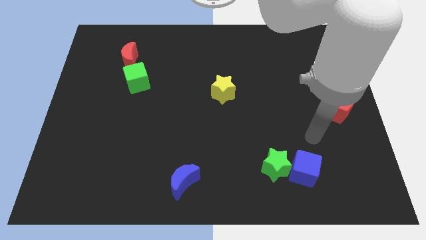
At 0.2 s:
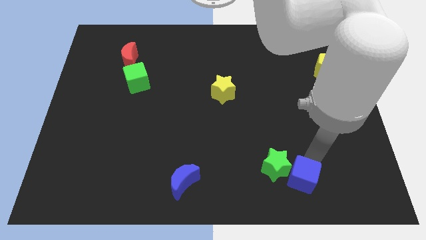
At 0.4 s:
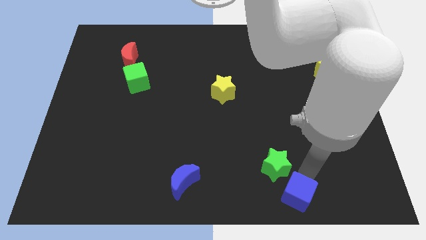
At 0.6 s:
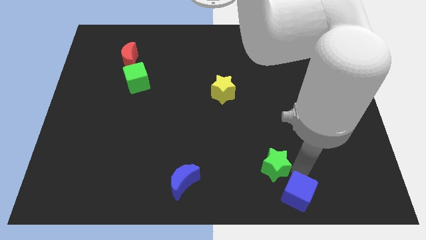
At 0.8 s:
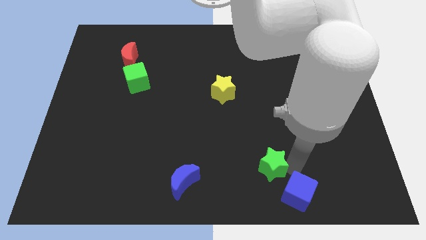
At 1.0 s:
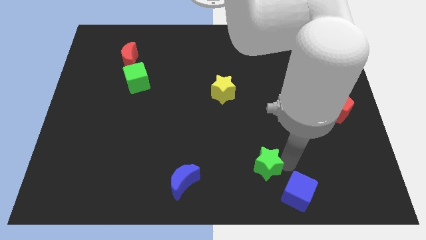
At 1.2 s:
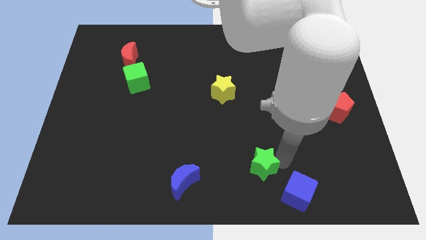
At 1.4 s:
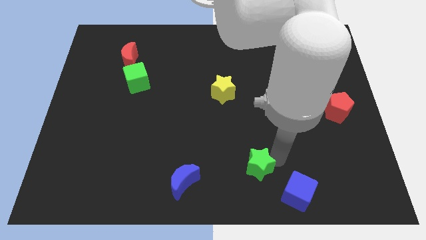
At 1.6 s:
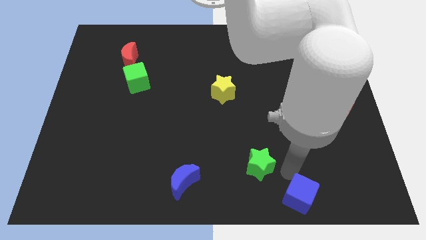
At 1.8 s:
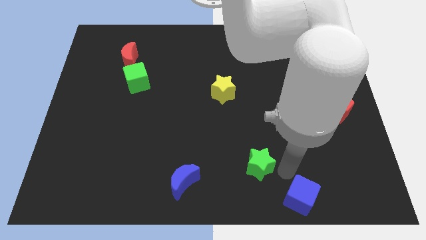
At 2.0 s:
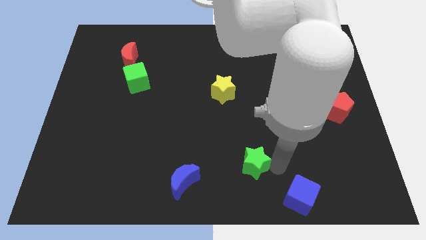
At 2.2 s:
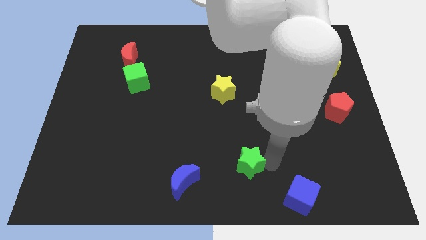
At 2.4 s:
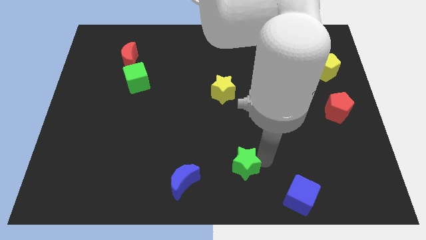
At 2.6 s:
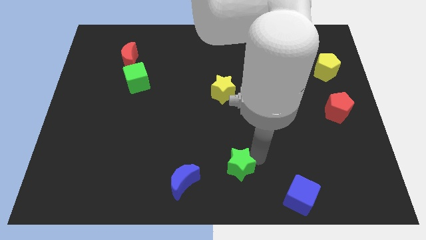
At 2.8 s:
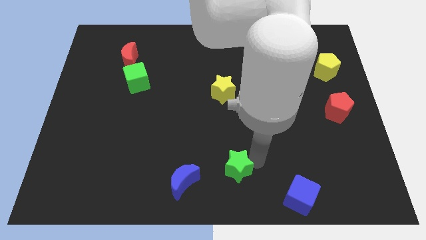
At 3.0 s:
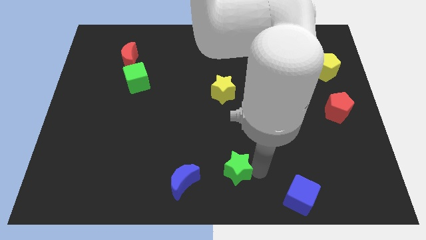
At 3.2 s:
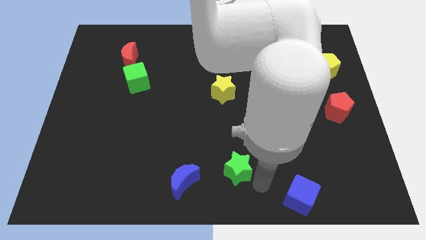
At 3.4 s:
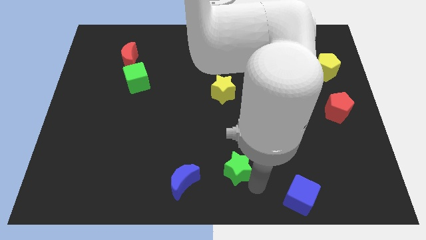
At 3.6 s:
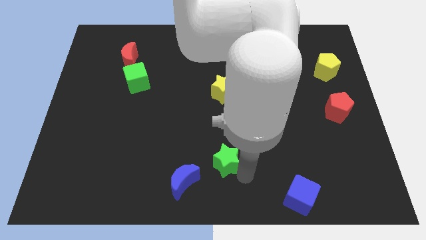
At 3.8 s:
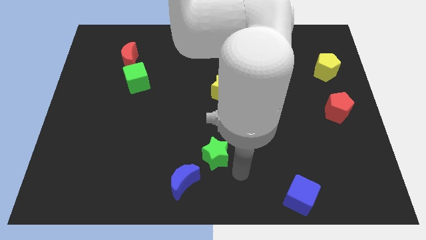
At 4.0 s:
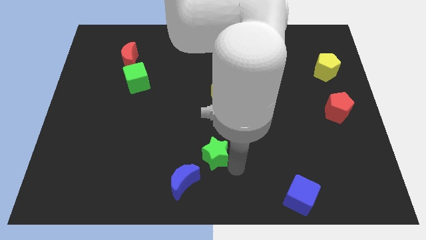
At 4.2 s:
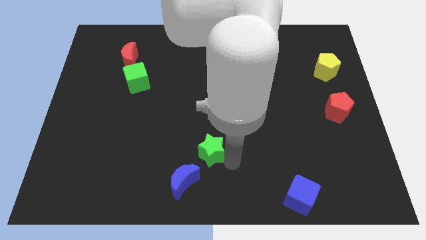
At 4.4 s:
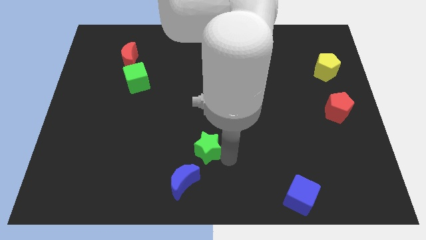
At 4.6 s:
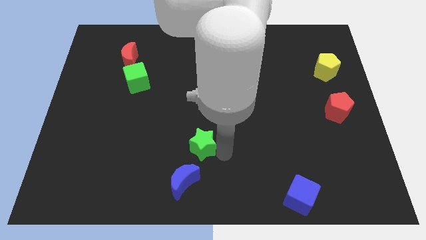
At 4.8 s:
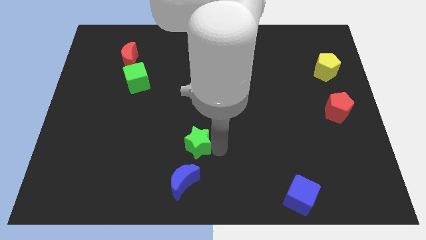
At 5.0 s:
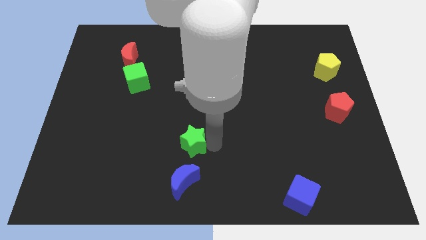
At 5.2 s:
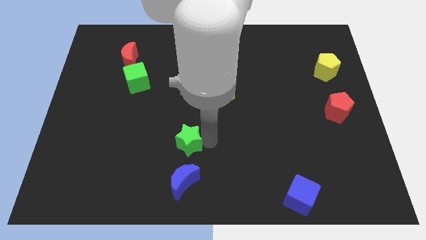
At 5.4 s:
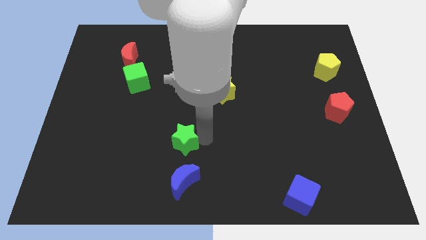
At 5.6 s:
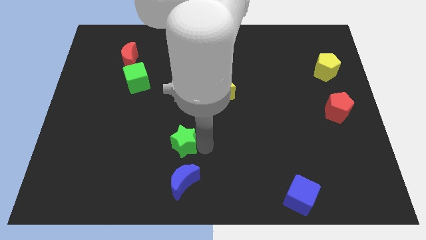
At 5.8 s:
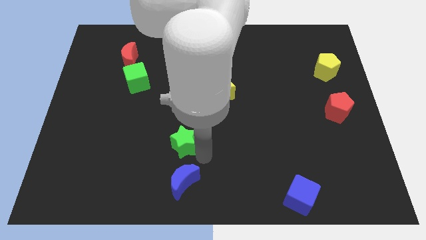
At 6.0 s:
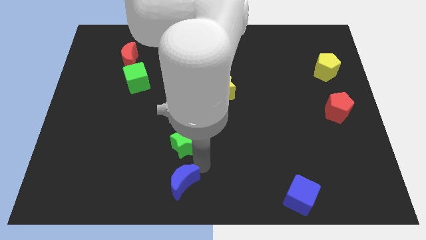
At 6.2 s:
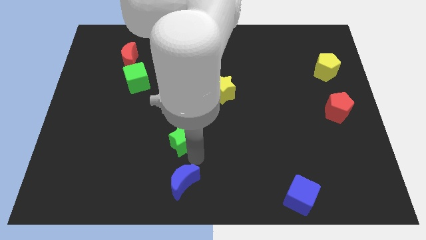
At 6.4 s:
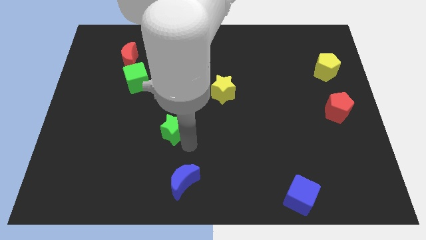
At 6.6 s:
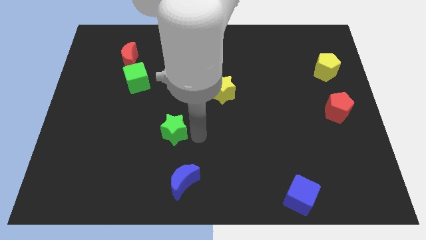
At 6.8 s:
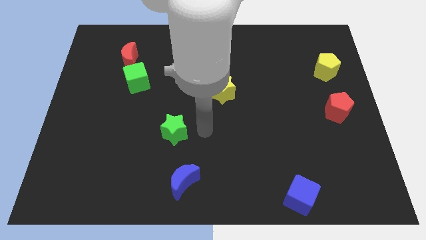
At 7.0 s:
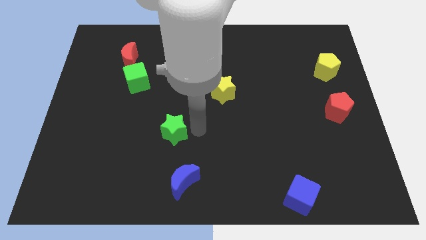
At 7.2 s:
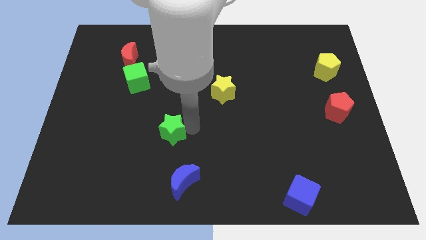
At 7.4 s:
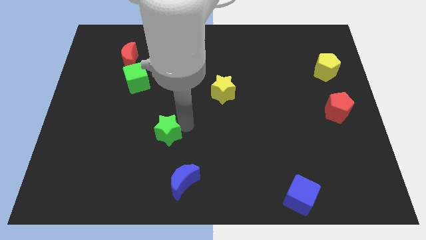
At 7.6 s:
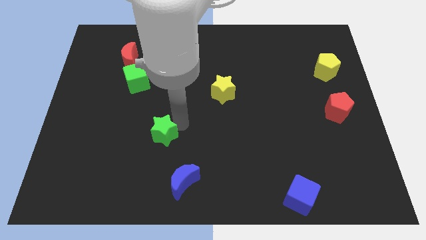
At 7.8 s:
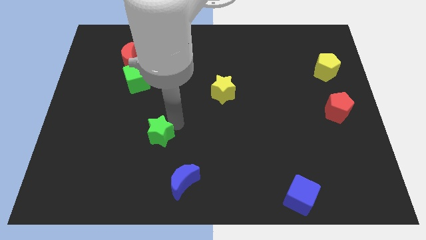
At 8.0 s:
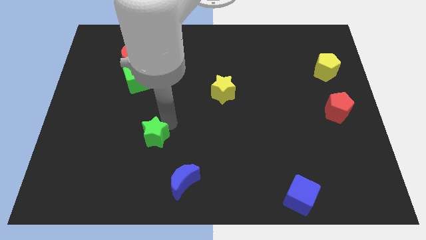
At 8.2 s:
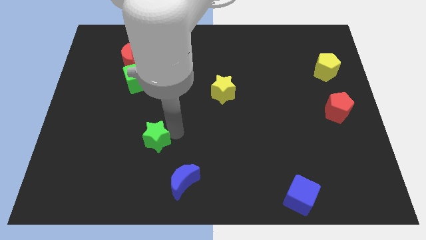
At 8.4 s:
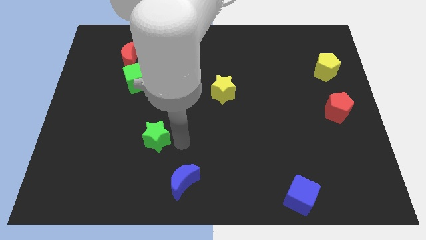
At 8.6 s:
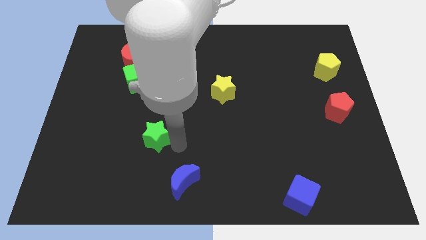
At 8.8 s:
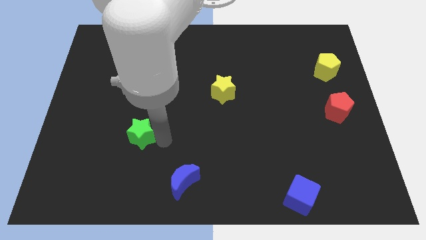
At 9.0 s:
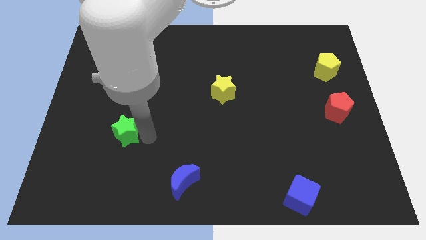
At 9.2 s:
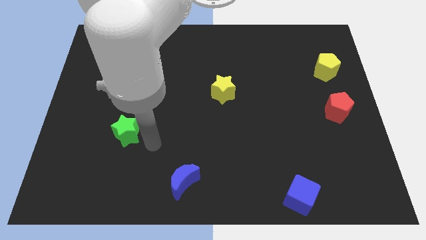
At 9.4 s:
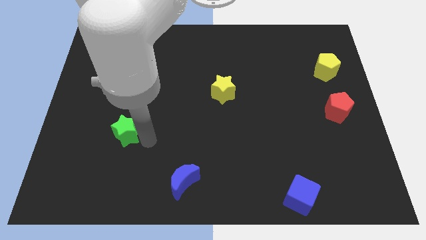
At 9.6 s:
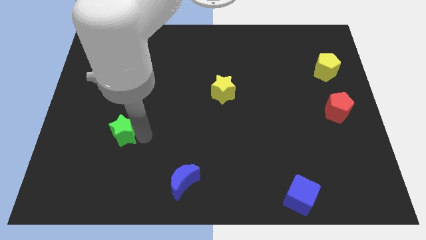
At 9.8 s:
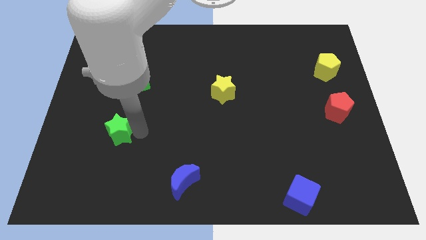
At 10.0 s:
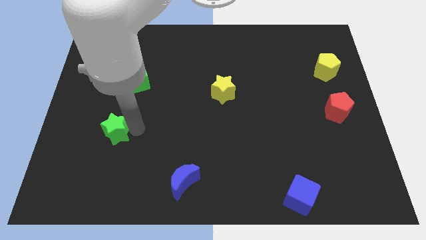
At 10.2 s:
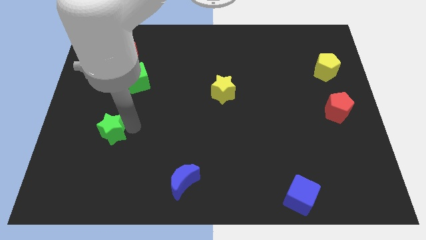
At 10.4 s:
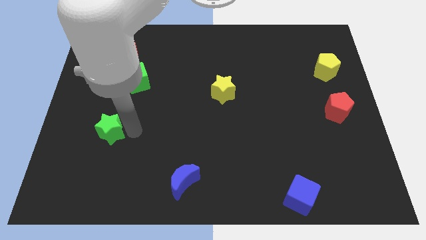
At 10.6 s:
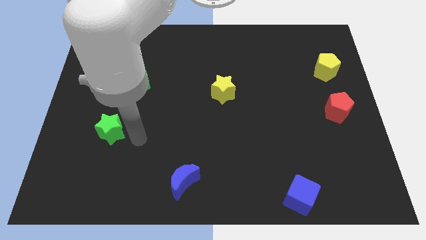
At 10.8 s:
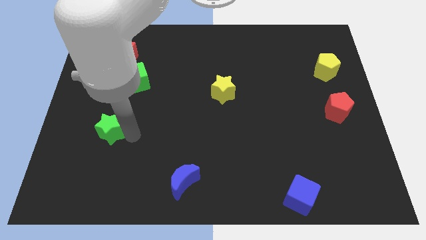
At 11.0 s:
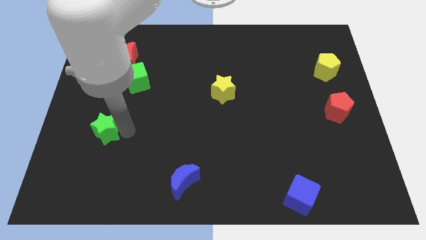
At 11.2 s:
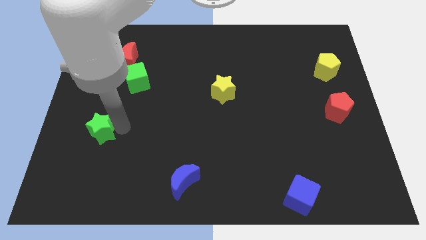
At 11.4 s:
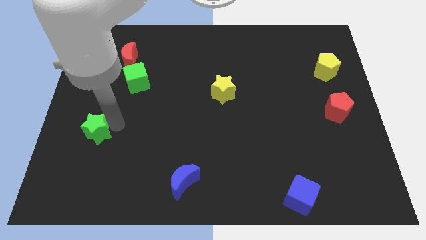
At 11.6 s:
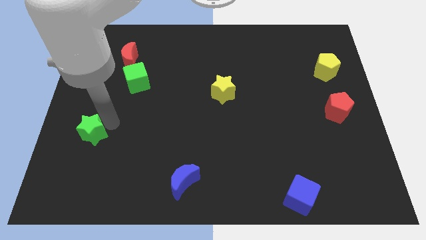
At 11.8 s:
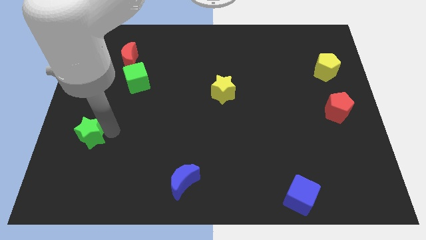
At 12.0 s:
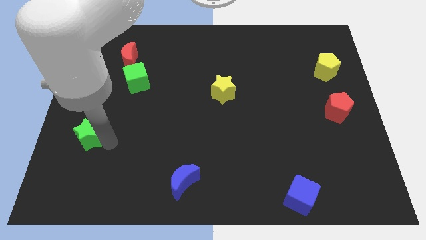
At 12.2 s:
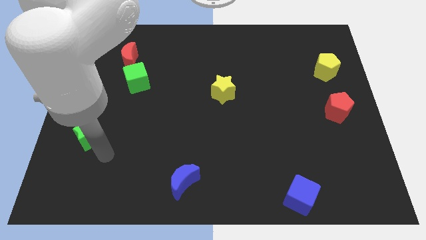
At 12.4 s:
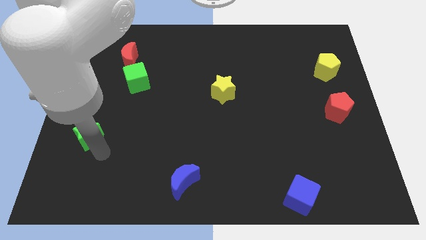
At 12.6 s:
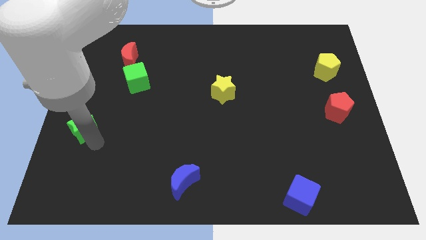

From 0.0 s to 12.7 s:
push the green star to the center left
